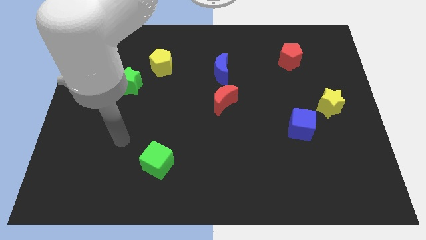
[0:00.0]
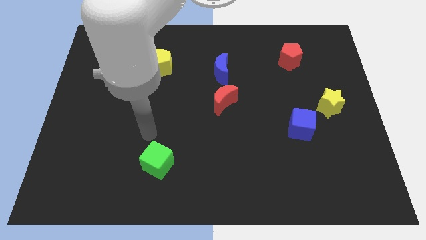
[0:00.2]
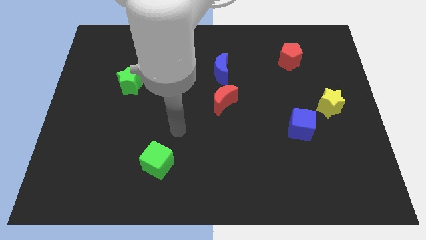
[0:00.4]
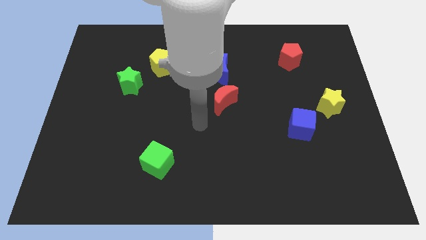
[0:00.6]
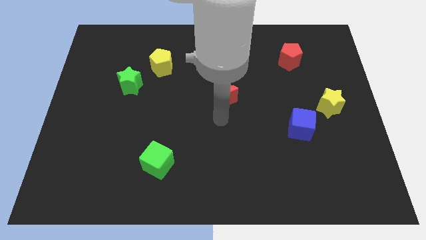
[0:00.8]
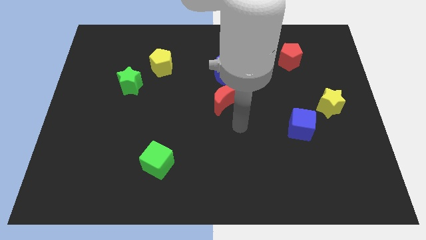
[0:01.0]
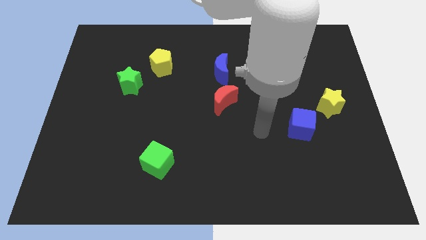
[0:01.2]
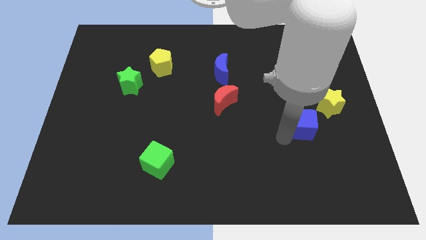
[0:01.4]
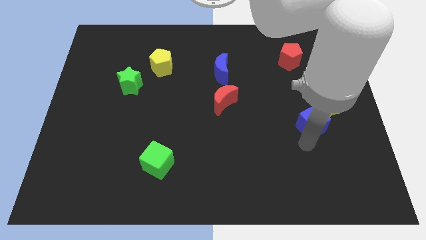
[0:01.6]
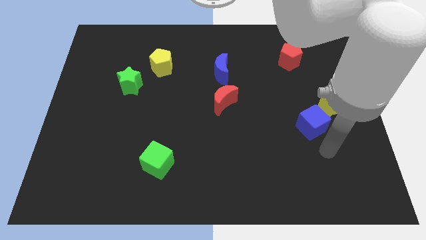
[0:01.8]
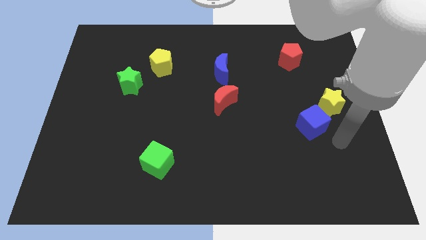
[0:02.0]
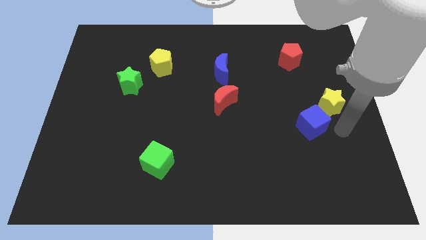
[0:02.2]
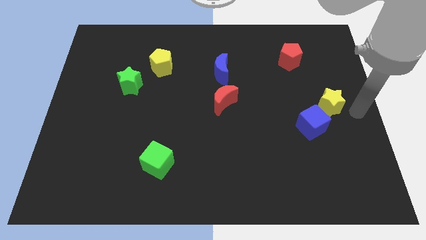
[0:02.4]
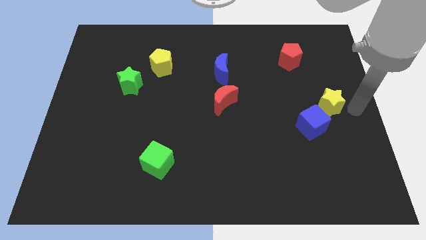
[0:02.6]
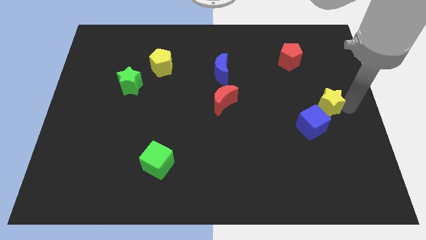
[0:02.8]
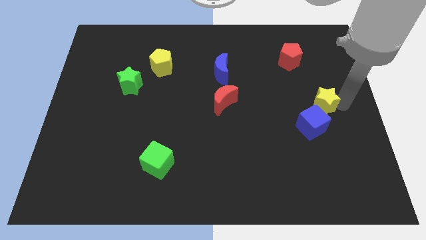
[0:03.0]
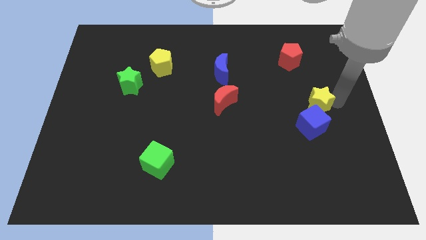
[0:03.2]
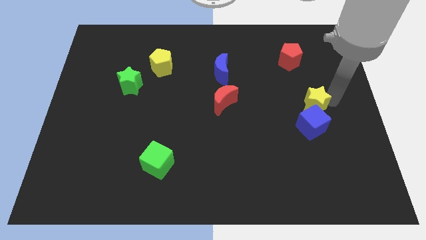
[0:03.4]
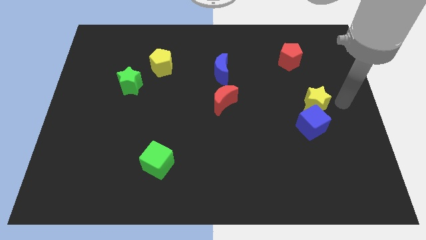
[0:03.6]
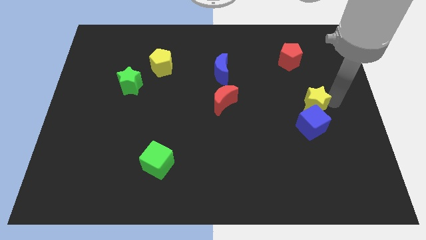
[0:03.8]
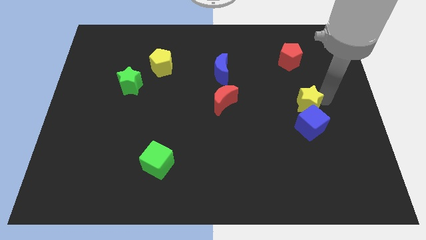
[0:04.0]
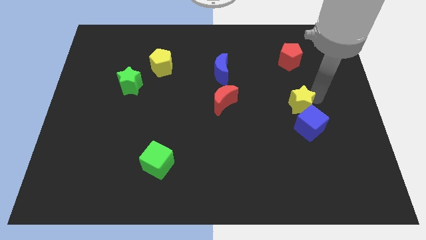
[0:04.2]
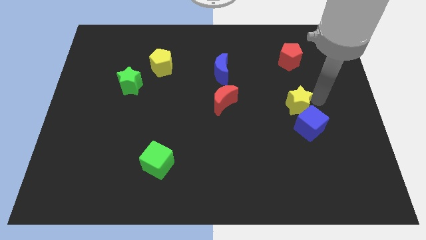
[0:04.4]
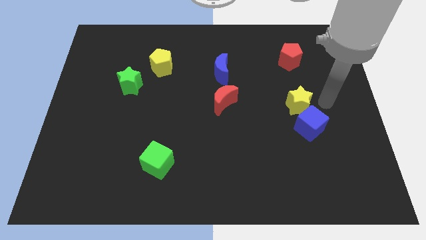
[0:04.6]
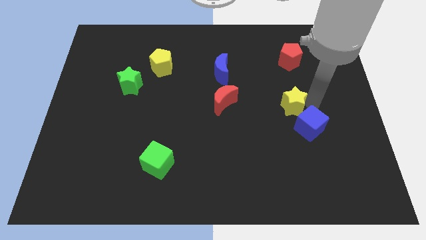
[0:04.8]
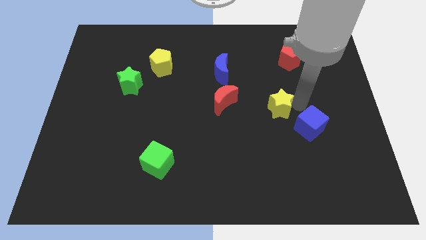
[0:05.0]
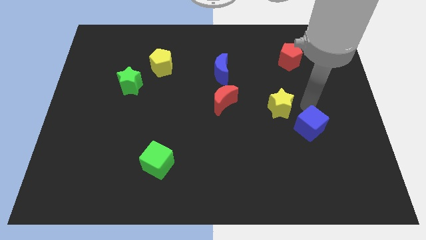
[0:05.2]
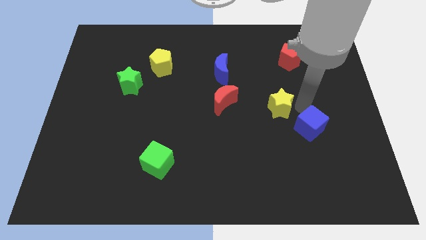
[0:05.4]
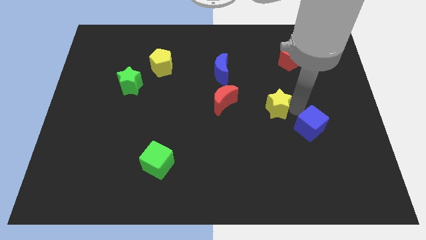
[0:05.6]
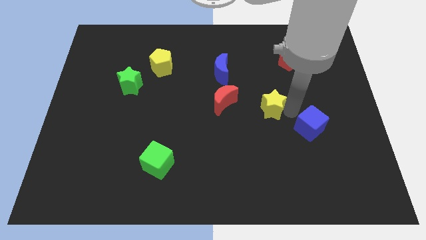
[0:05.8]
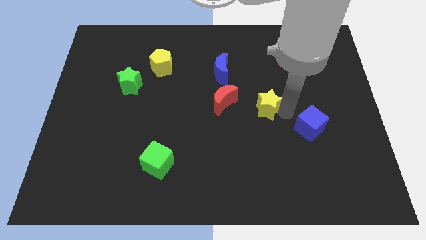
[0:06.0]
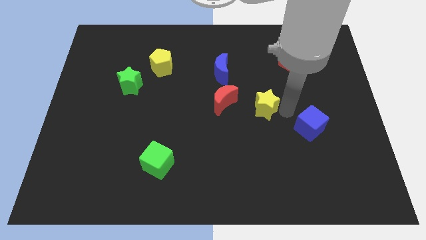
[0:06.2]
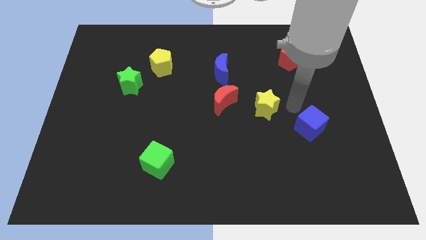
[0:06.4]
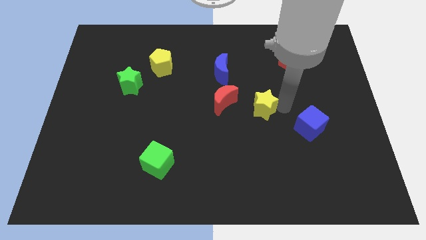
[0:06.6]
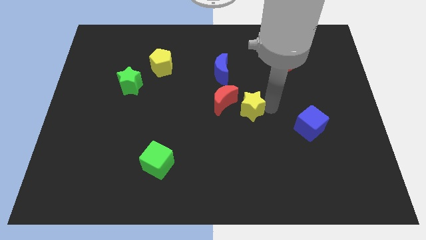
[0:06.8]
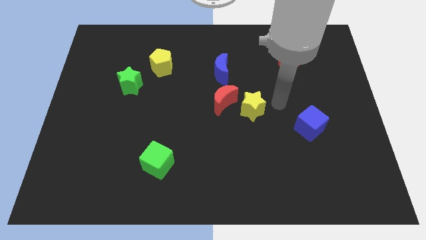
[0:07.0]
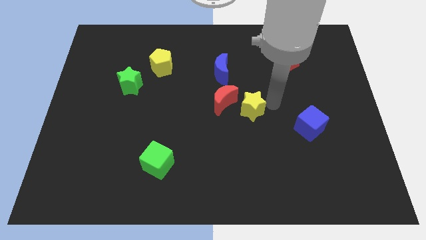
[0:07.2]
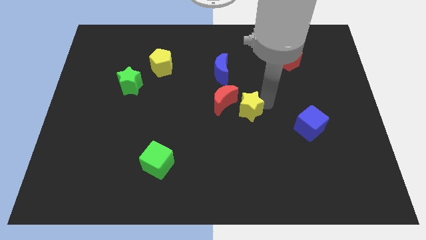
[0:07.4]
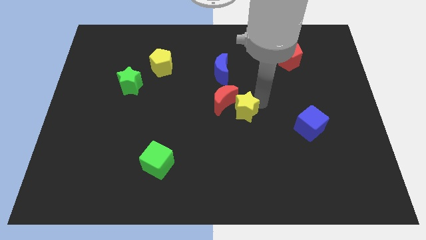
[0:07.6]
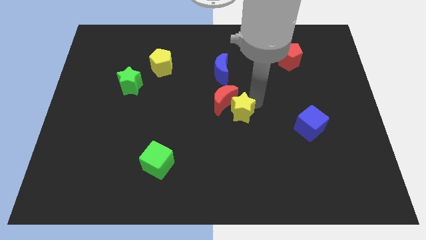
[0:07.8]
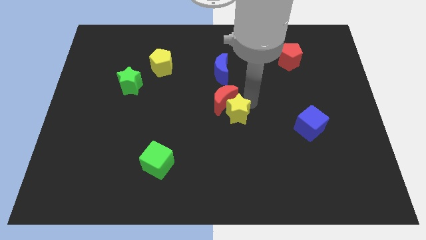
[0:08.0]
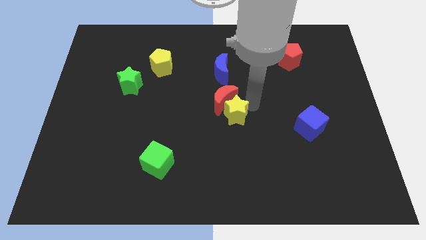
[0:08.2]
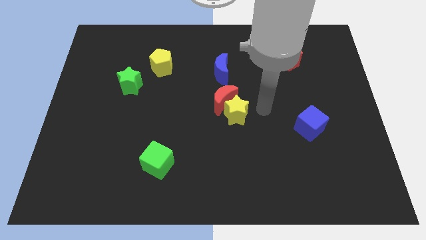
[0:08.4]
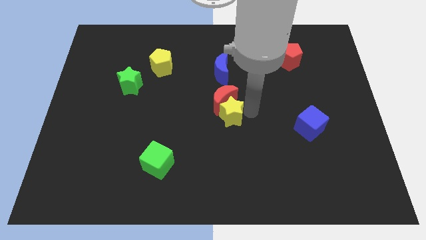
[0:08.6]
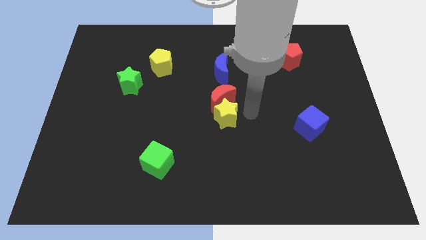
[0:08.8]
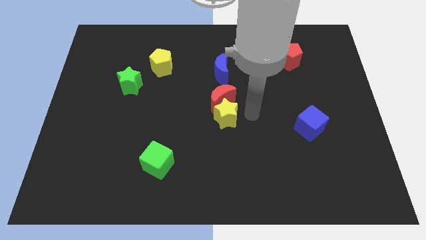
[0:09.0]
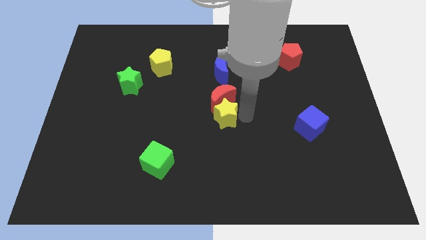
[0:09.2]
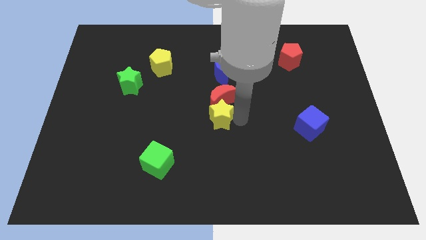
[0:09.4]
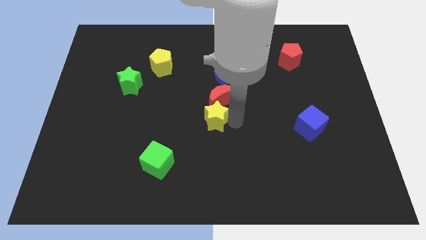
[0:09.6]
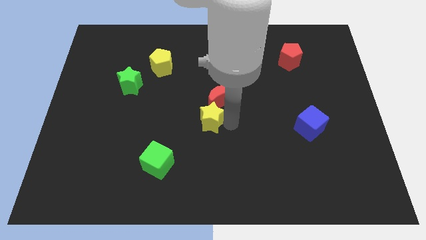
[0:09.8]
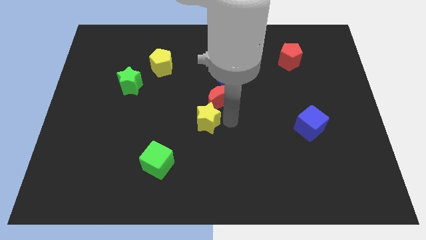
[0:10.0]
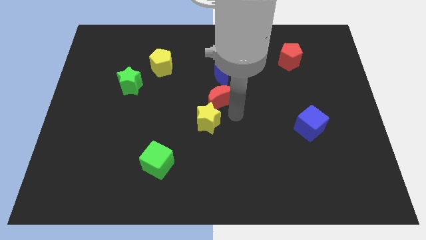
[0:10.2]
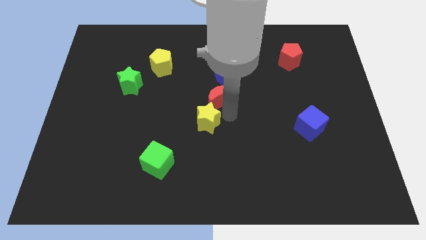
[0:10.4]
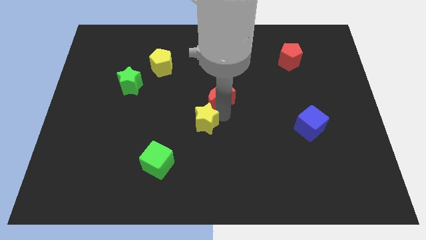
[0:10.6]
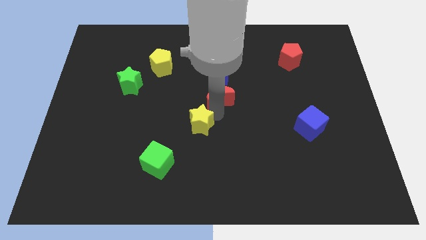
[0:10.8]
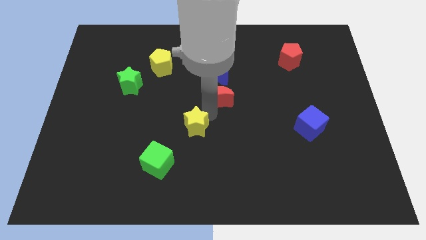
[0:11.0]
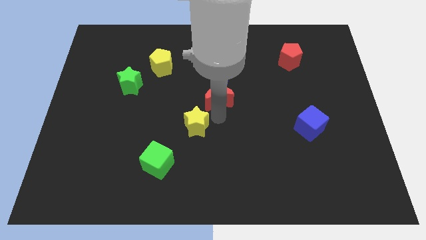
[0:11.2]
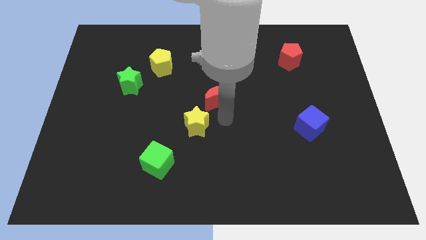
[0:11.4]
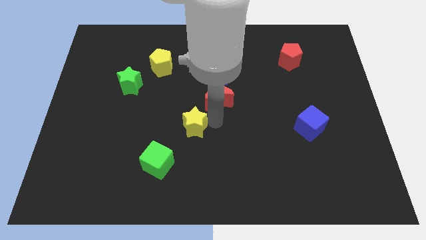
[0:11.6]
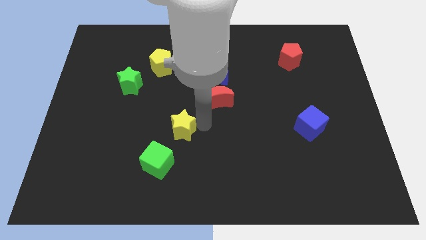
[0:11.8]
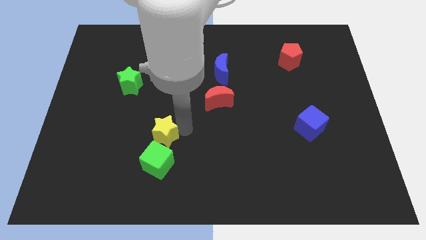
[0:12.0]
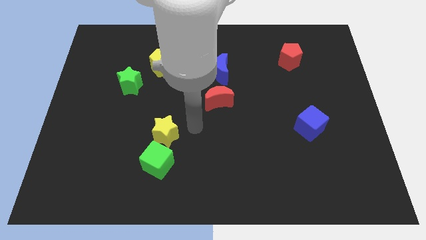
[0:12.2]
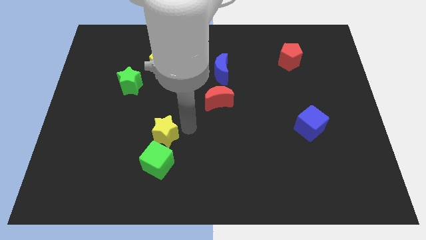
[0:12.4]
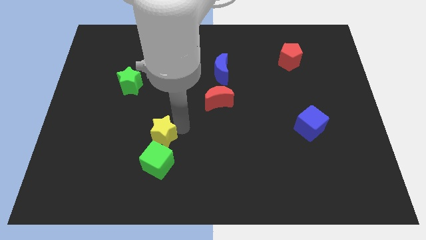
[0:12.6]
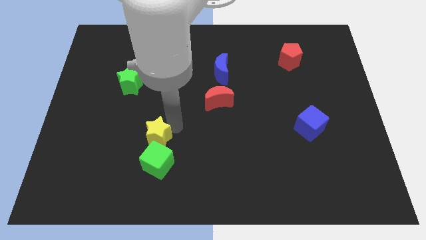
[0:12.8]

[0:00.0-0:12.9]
put the yellow star to the top left of the green cube

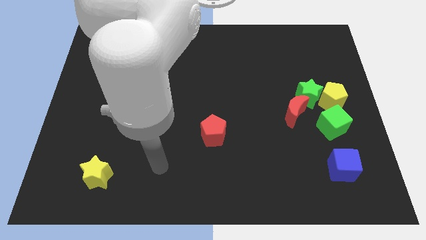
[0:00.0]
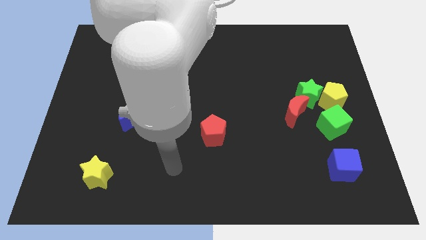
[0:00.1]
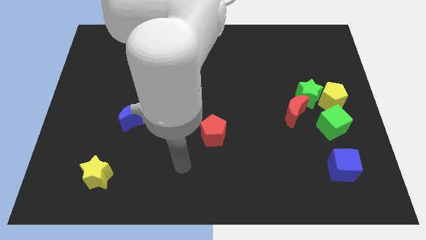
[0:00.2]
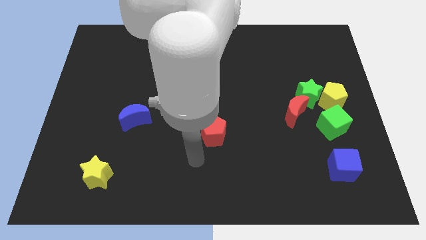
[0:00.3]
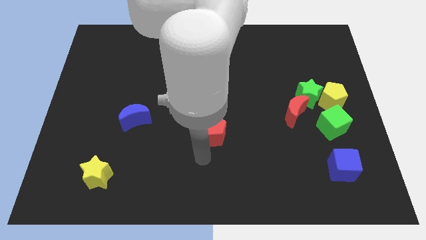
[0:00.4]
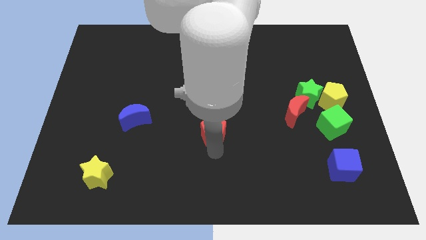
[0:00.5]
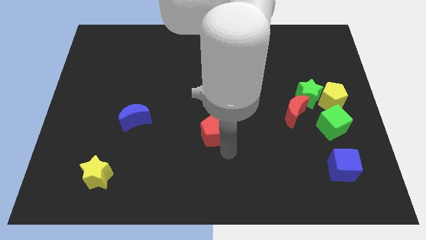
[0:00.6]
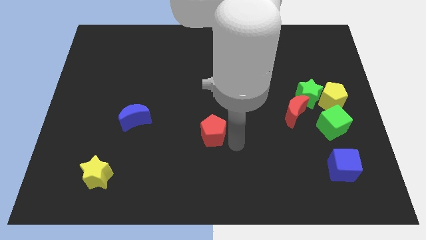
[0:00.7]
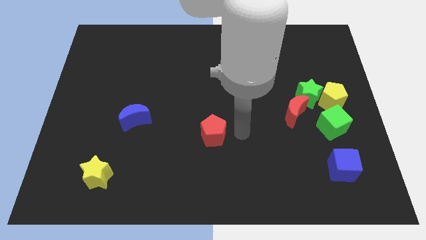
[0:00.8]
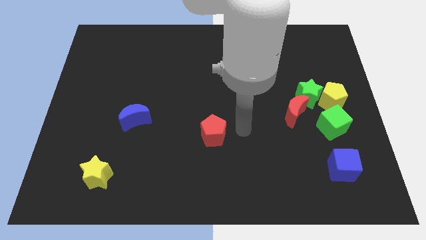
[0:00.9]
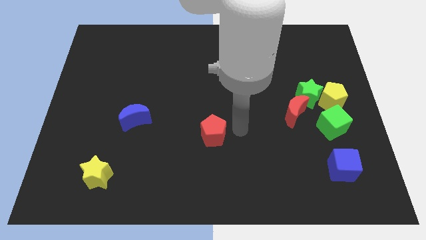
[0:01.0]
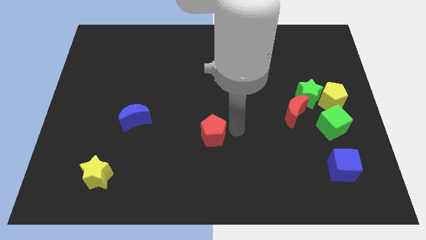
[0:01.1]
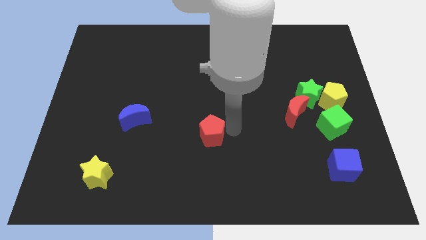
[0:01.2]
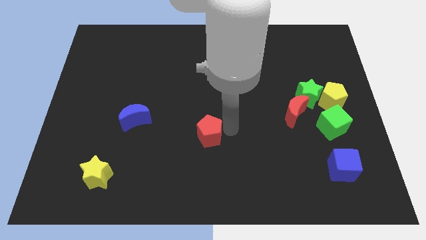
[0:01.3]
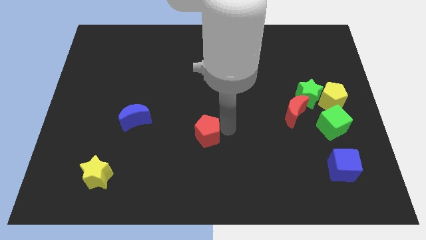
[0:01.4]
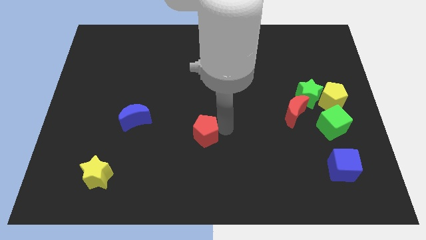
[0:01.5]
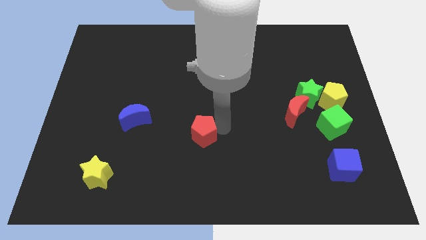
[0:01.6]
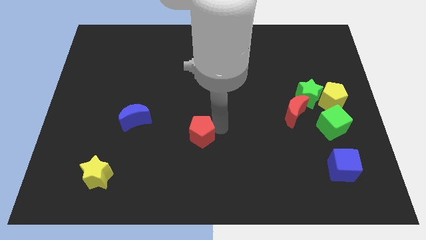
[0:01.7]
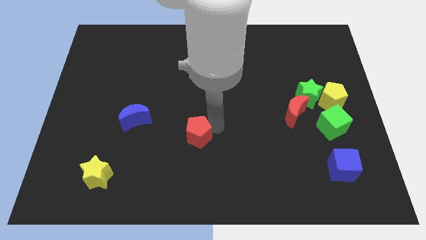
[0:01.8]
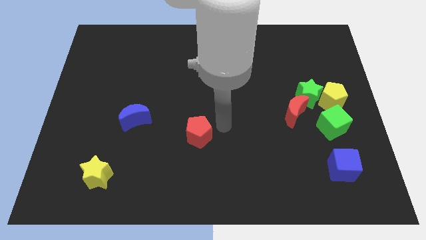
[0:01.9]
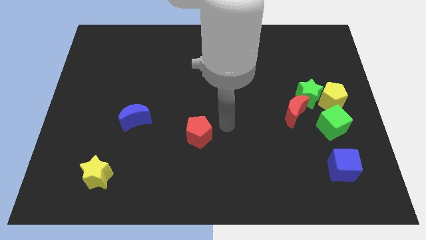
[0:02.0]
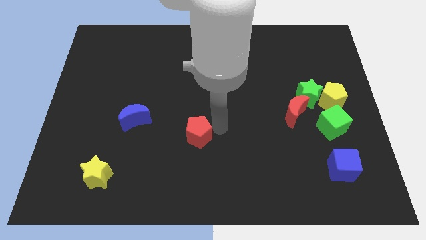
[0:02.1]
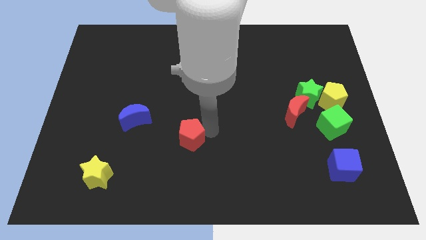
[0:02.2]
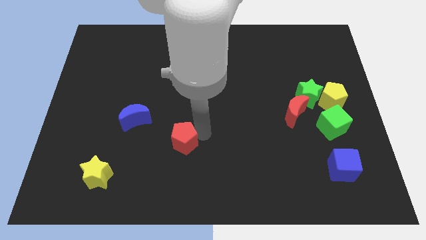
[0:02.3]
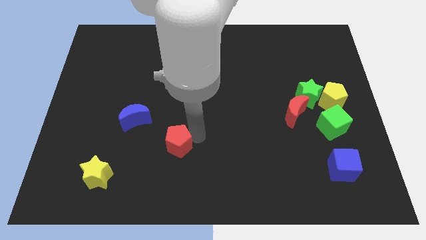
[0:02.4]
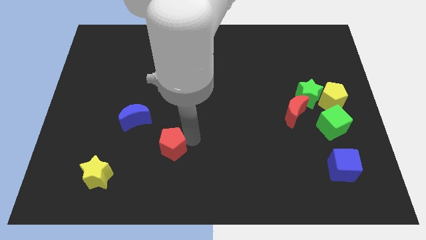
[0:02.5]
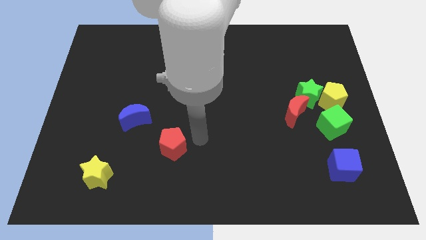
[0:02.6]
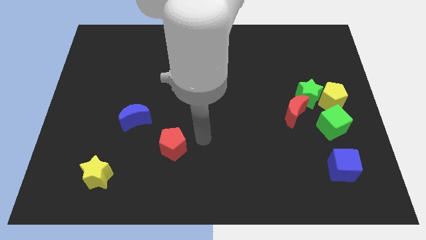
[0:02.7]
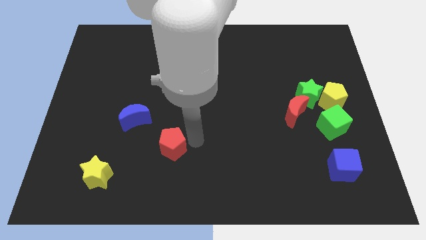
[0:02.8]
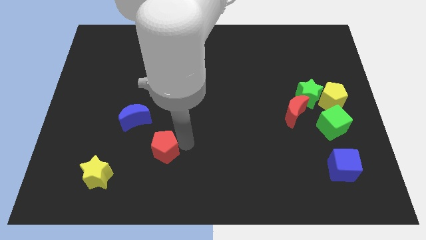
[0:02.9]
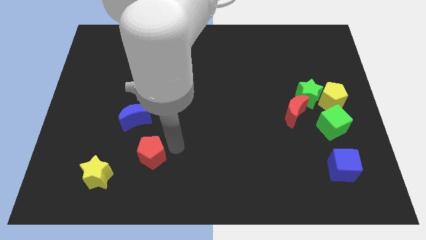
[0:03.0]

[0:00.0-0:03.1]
put the red pentagon to the bottom side of the blue moon
